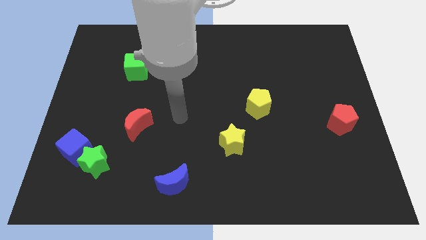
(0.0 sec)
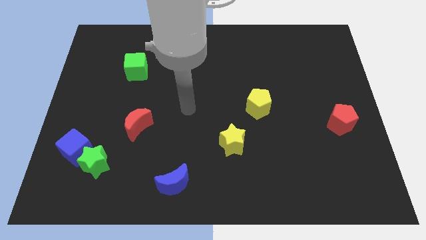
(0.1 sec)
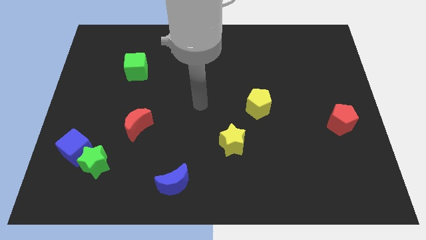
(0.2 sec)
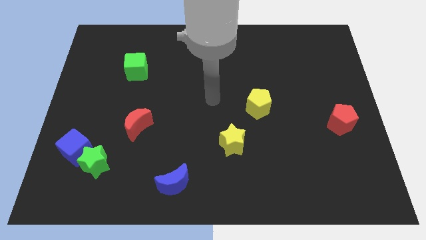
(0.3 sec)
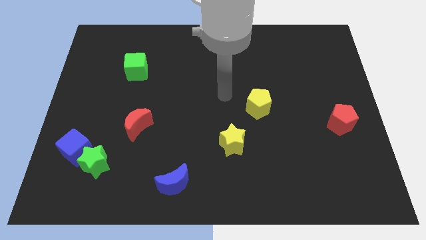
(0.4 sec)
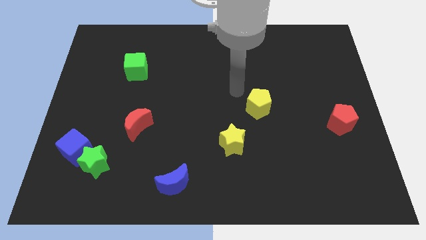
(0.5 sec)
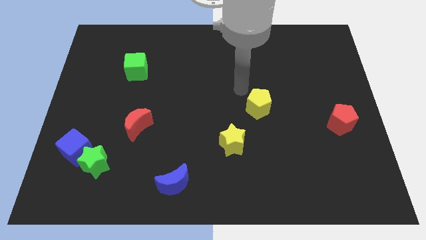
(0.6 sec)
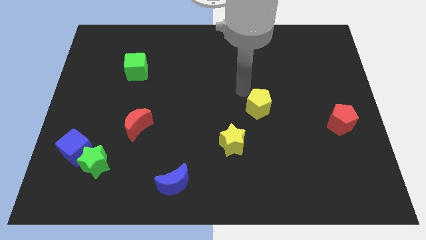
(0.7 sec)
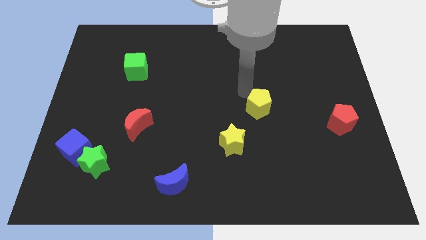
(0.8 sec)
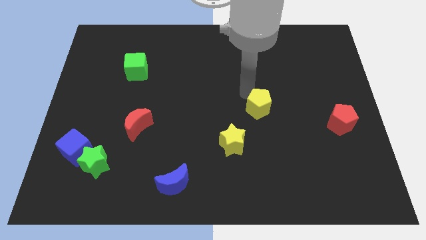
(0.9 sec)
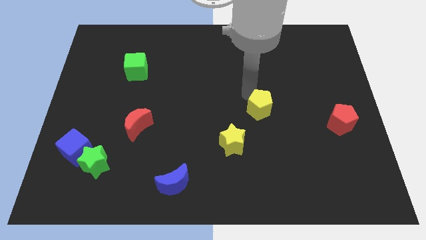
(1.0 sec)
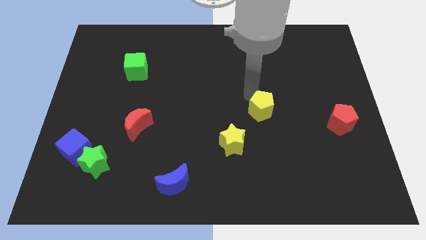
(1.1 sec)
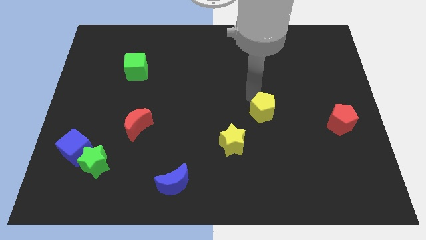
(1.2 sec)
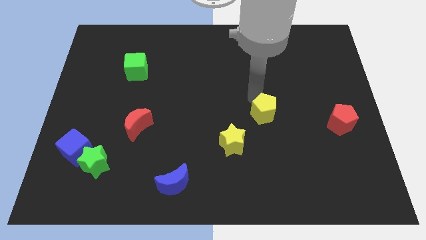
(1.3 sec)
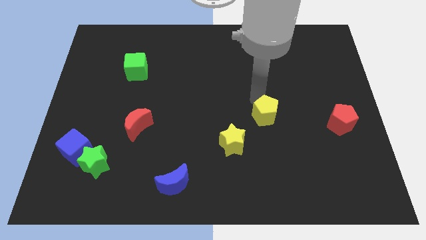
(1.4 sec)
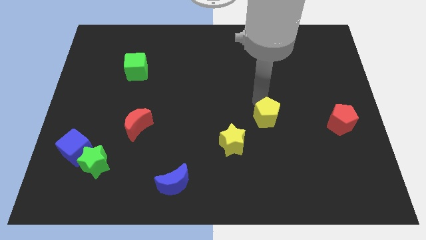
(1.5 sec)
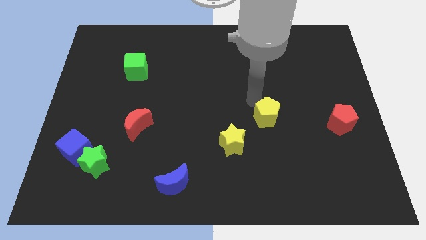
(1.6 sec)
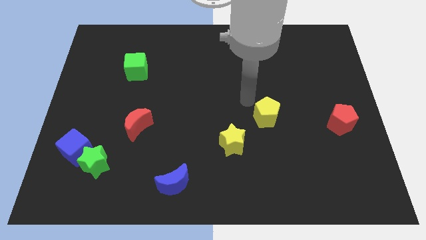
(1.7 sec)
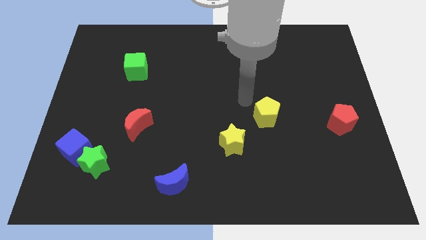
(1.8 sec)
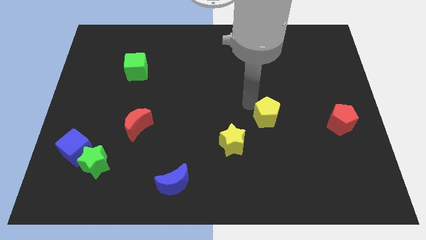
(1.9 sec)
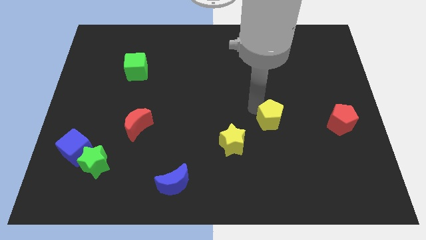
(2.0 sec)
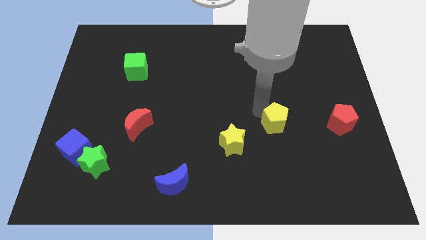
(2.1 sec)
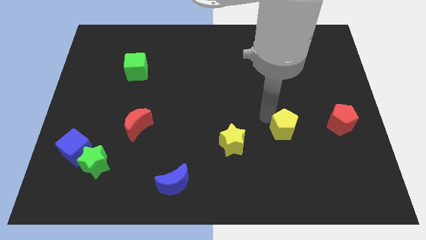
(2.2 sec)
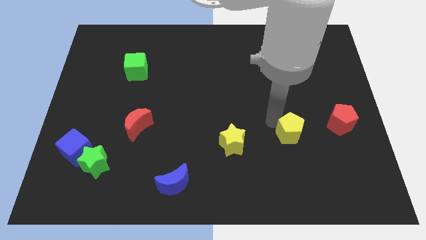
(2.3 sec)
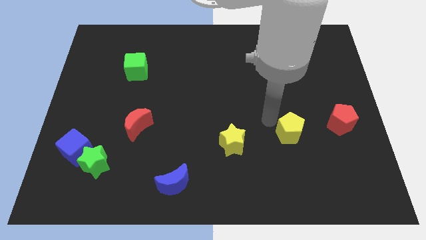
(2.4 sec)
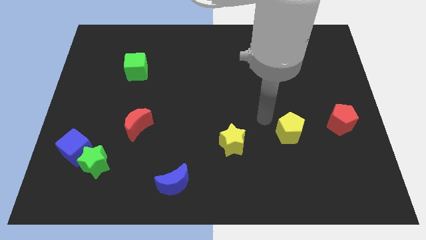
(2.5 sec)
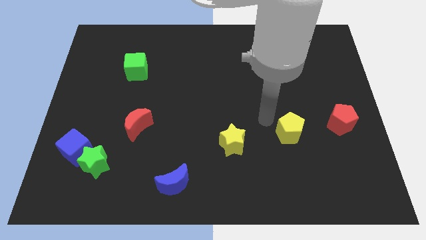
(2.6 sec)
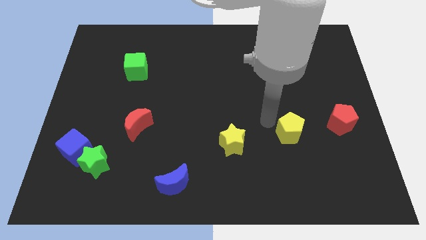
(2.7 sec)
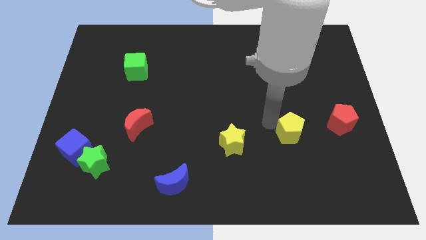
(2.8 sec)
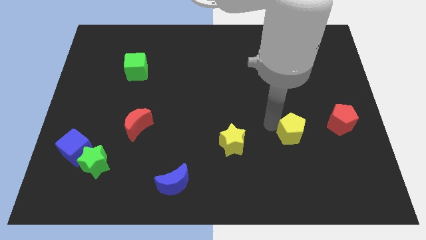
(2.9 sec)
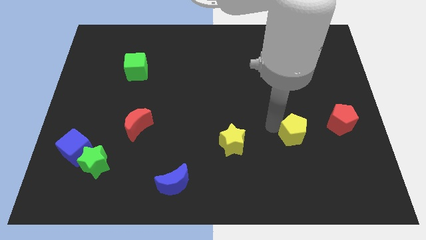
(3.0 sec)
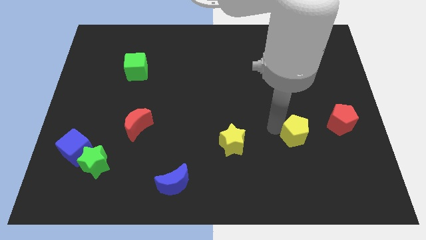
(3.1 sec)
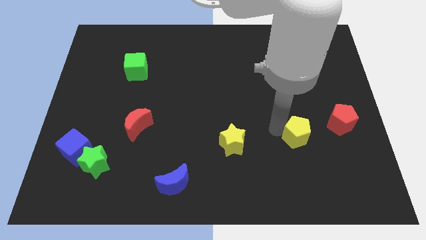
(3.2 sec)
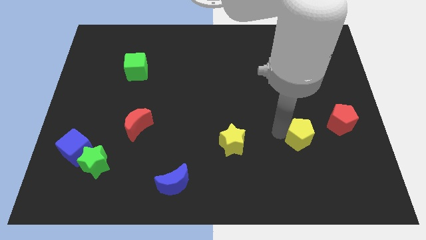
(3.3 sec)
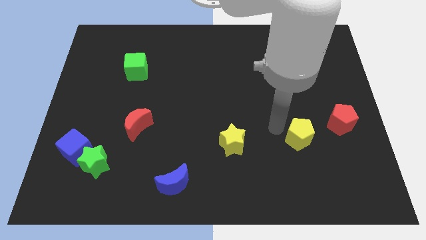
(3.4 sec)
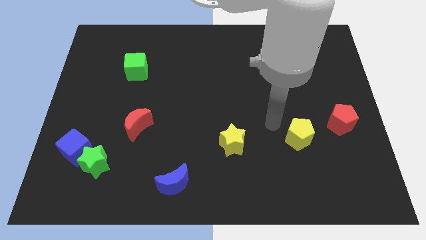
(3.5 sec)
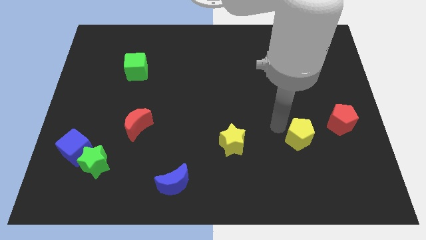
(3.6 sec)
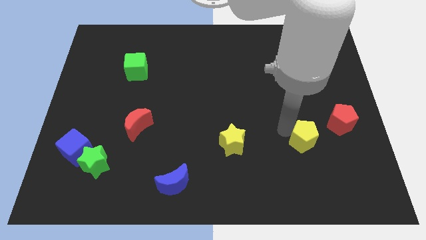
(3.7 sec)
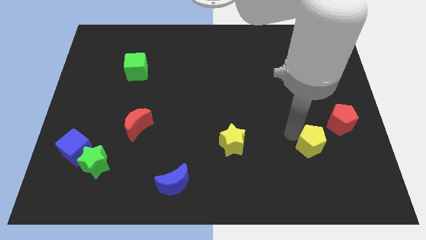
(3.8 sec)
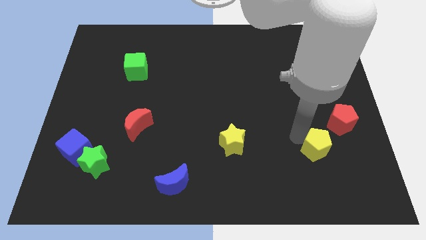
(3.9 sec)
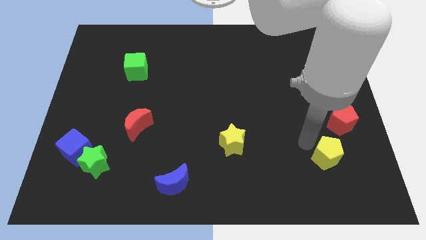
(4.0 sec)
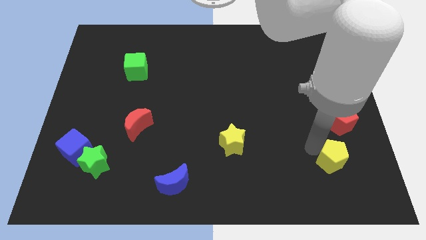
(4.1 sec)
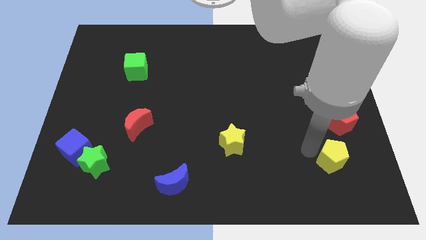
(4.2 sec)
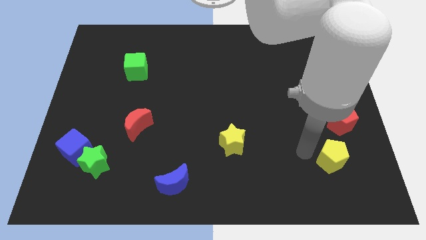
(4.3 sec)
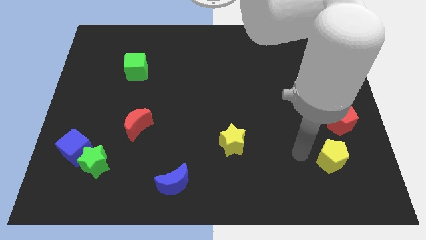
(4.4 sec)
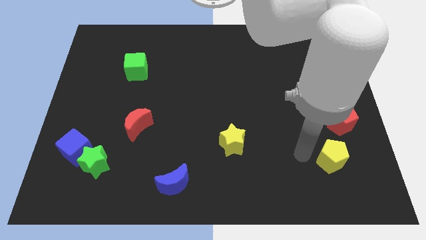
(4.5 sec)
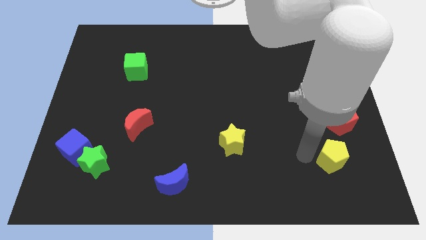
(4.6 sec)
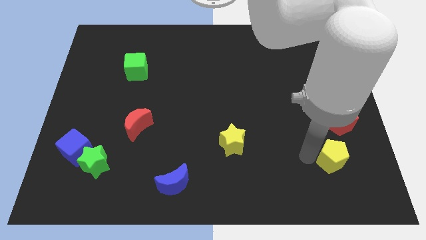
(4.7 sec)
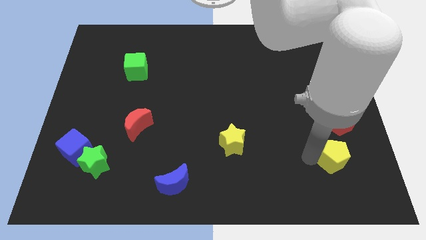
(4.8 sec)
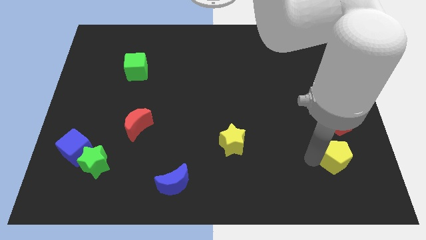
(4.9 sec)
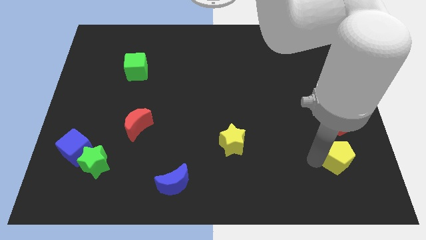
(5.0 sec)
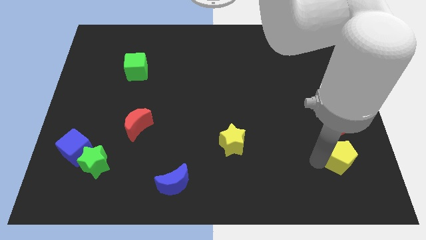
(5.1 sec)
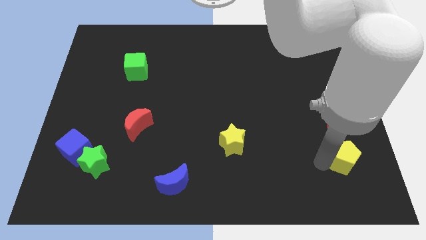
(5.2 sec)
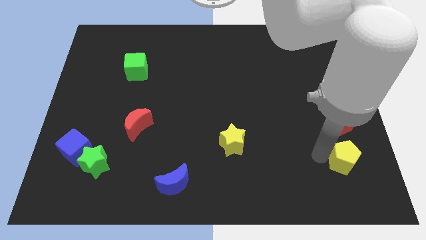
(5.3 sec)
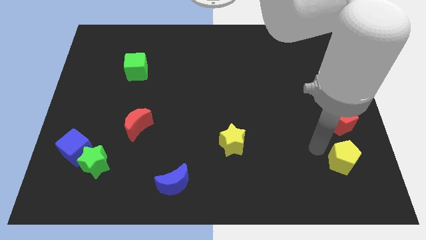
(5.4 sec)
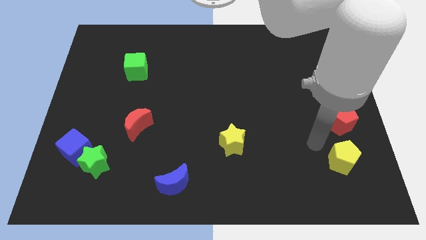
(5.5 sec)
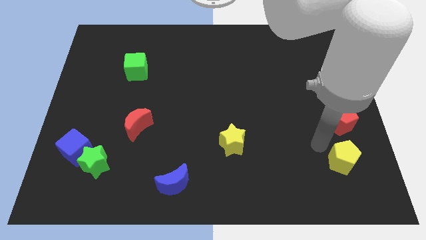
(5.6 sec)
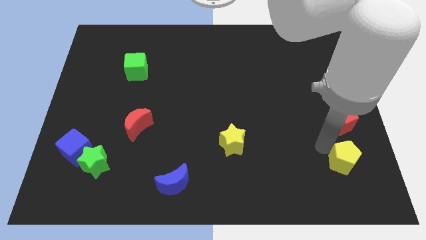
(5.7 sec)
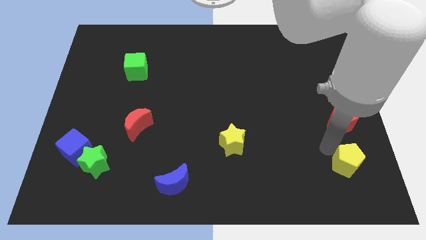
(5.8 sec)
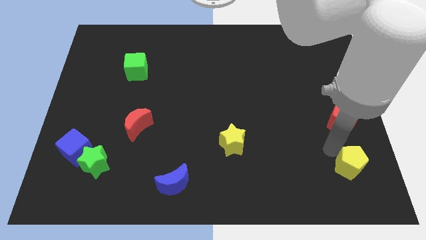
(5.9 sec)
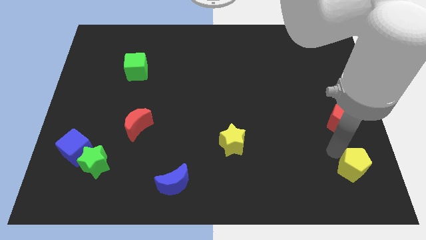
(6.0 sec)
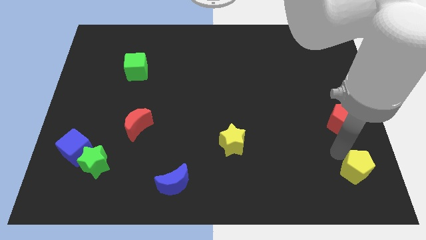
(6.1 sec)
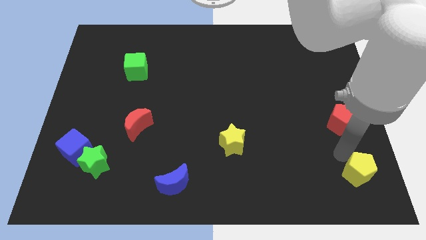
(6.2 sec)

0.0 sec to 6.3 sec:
put the yellow pentagon to the bottom right of the board
